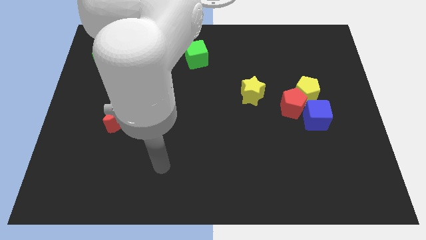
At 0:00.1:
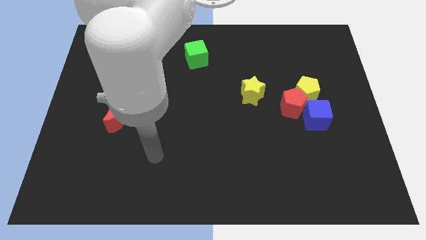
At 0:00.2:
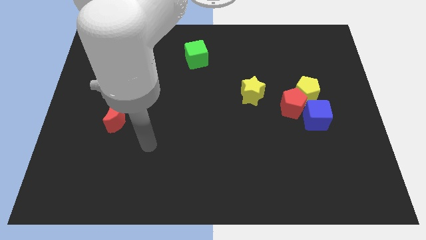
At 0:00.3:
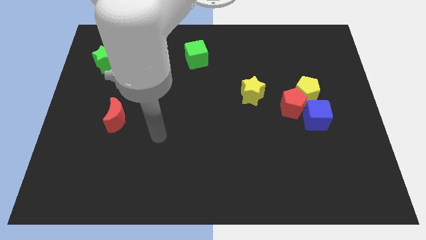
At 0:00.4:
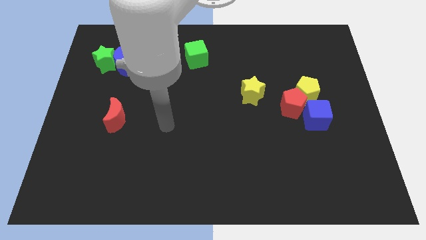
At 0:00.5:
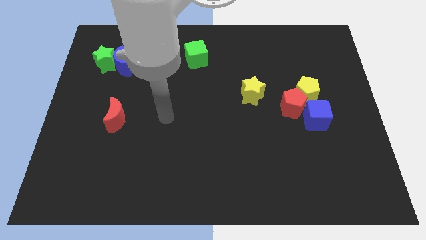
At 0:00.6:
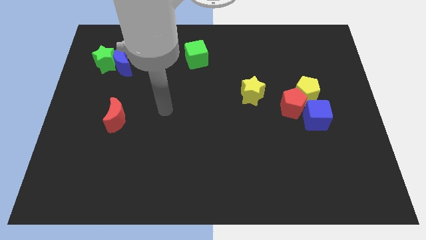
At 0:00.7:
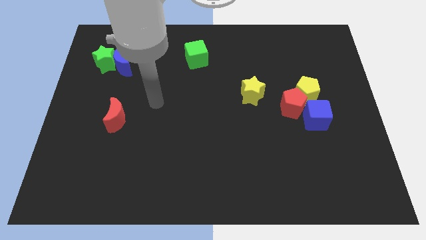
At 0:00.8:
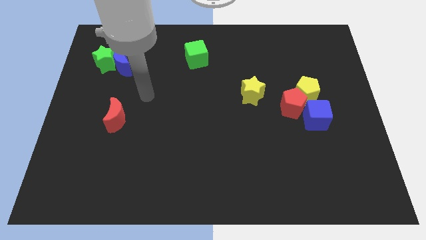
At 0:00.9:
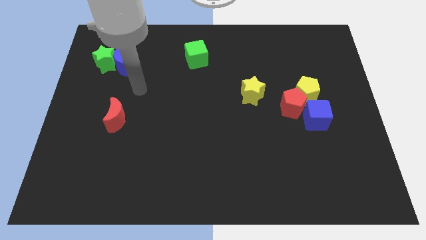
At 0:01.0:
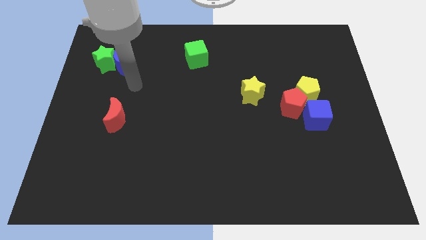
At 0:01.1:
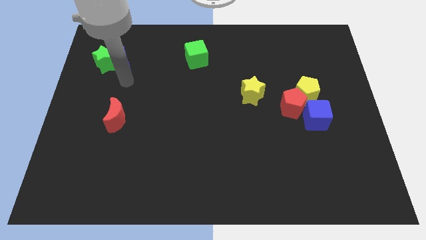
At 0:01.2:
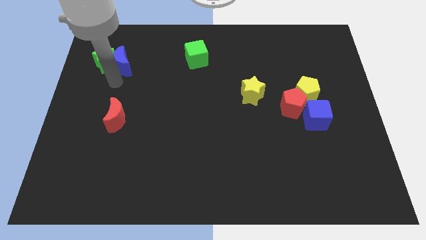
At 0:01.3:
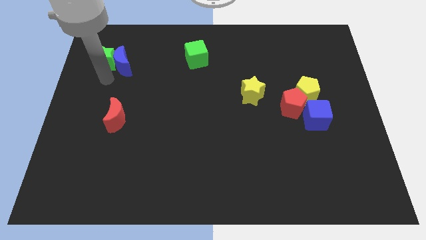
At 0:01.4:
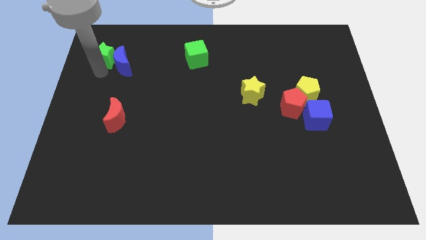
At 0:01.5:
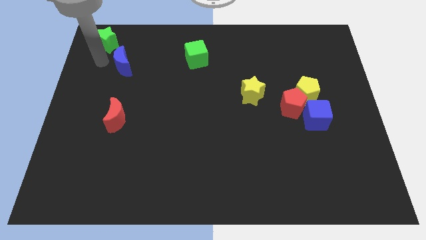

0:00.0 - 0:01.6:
separate the blue moon from the green star

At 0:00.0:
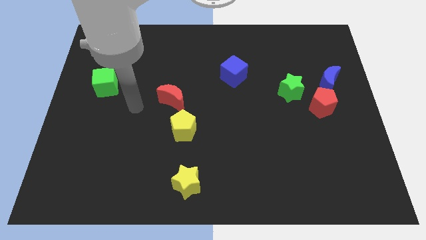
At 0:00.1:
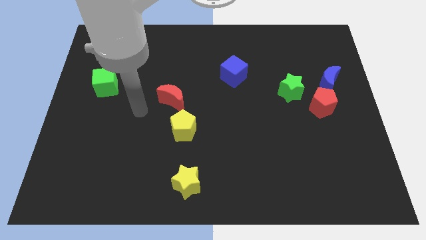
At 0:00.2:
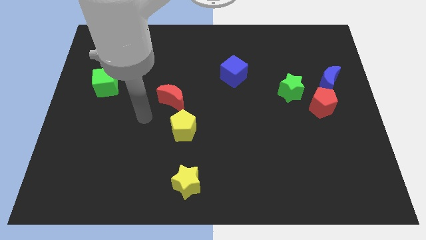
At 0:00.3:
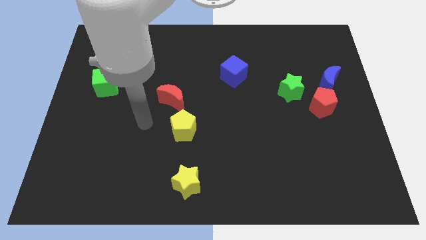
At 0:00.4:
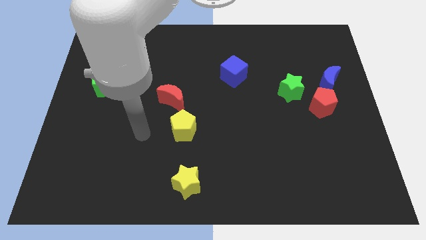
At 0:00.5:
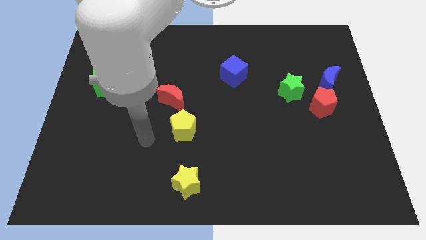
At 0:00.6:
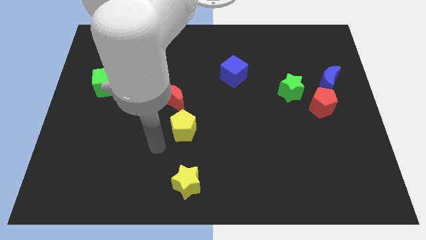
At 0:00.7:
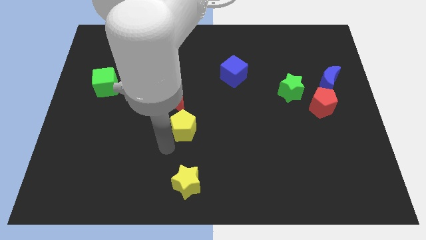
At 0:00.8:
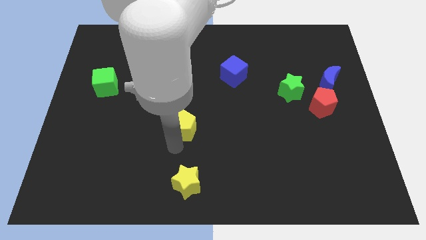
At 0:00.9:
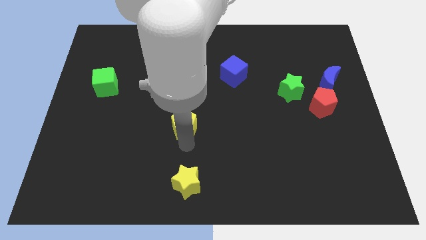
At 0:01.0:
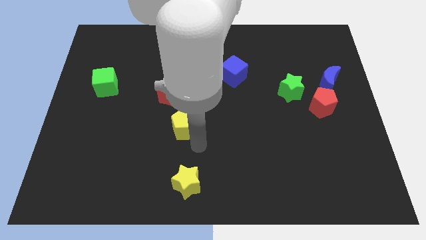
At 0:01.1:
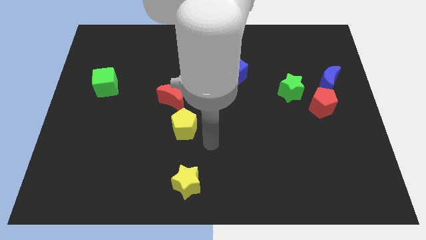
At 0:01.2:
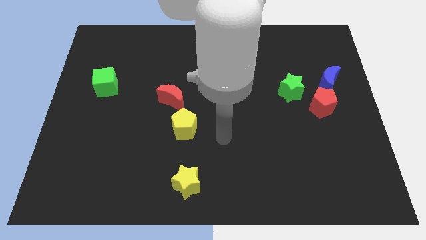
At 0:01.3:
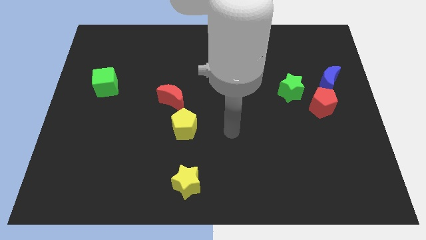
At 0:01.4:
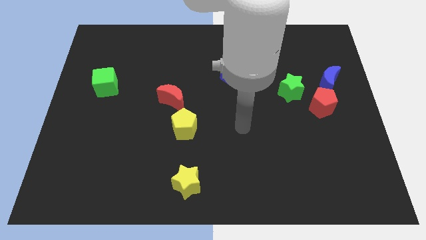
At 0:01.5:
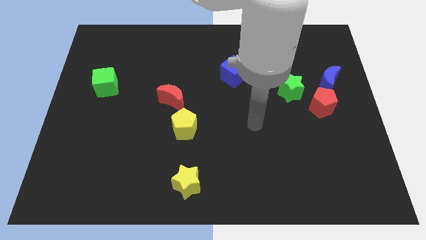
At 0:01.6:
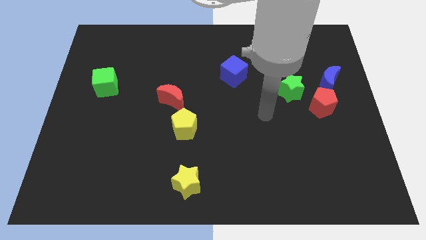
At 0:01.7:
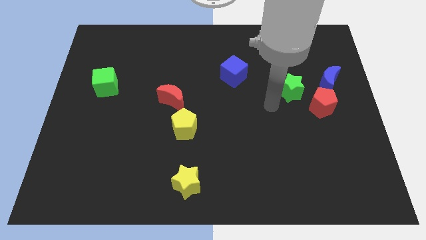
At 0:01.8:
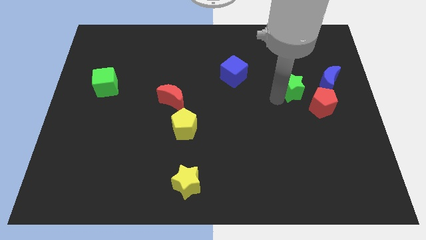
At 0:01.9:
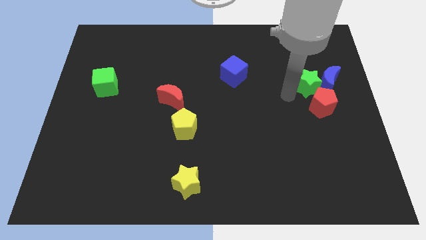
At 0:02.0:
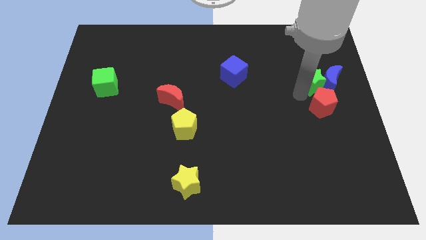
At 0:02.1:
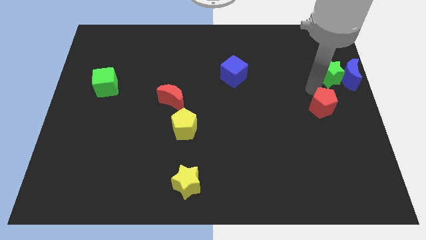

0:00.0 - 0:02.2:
move the red pentagon away from the blue moon and green star

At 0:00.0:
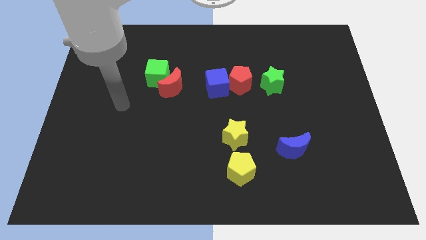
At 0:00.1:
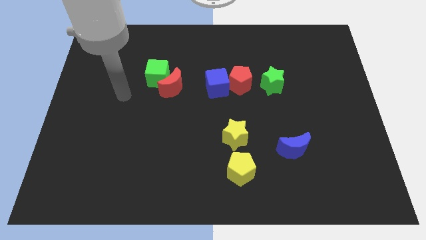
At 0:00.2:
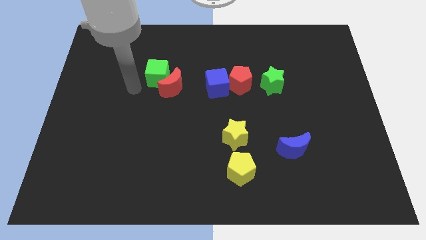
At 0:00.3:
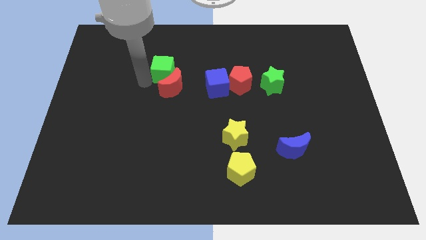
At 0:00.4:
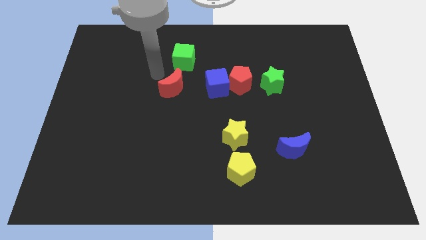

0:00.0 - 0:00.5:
move the red moon away from the green cube

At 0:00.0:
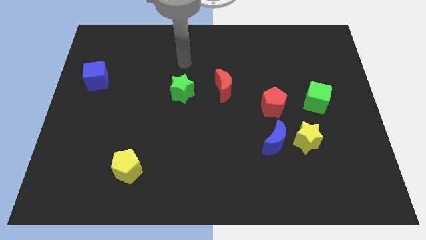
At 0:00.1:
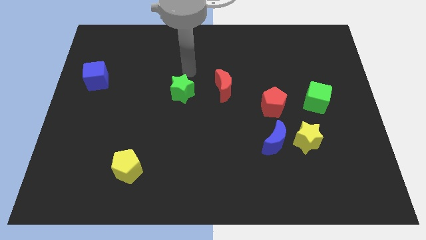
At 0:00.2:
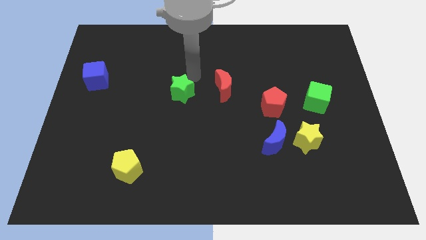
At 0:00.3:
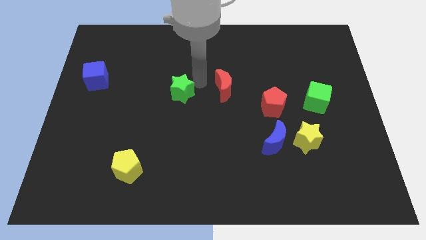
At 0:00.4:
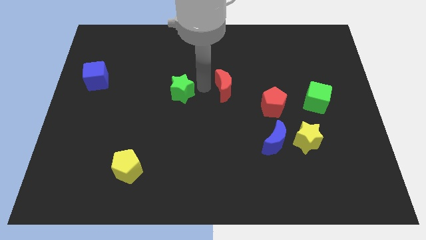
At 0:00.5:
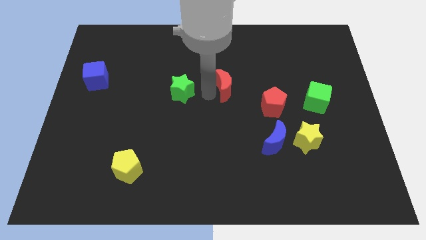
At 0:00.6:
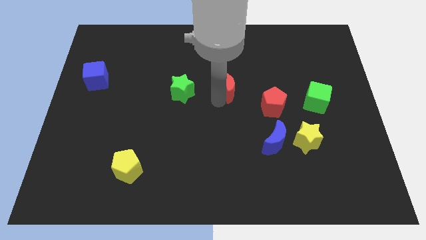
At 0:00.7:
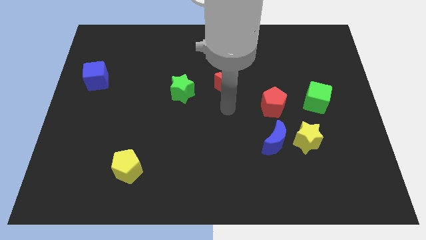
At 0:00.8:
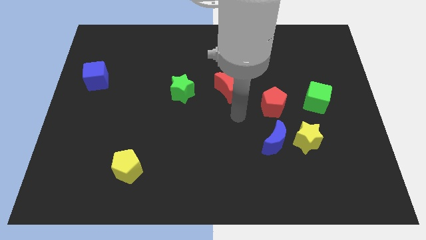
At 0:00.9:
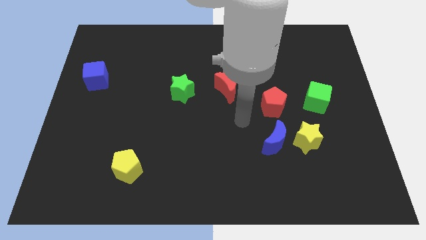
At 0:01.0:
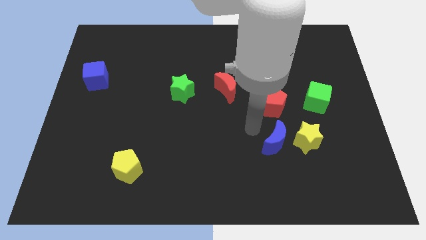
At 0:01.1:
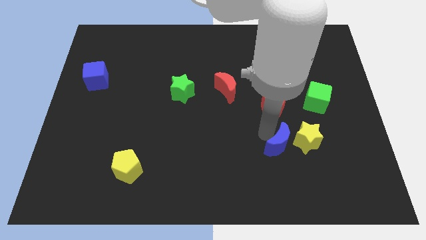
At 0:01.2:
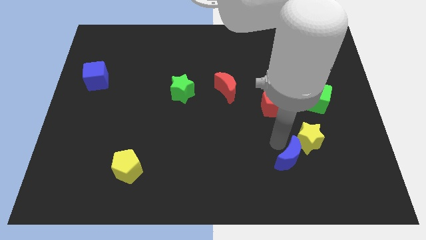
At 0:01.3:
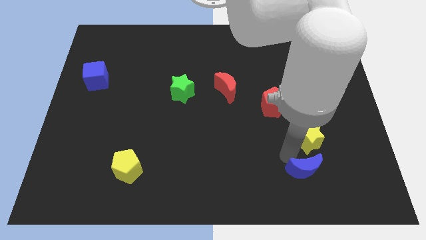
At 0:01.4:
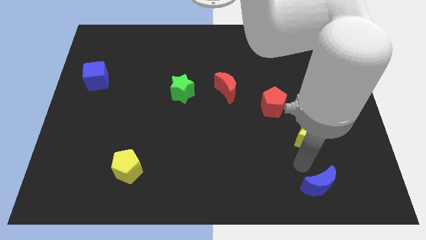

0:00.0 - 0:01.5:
pull the yellow star apart from the blue moon

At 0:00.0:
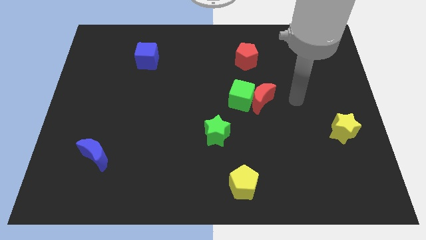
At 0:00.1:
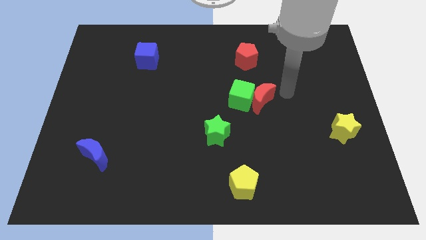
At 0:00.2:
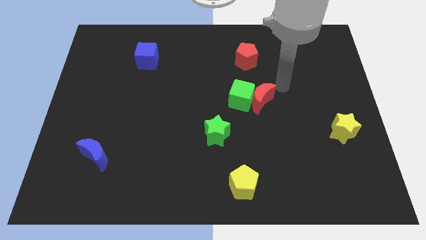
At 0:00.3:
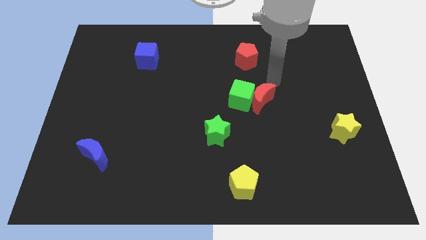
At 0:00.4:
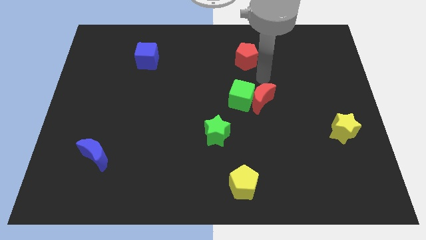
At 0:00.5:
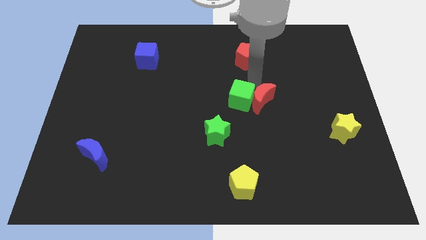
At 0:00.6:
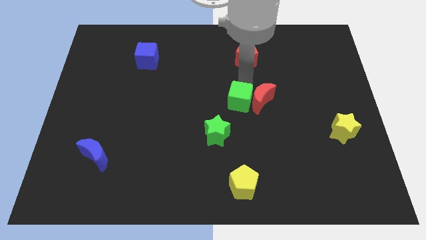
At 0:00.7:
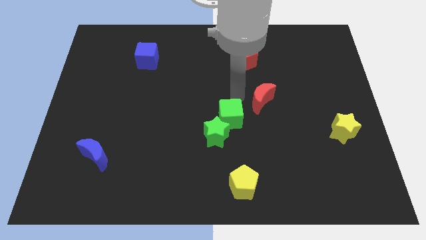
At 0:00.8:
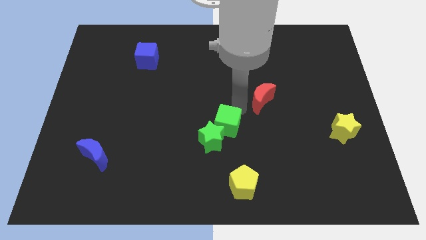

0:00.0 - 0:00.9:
separate the red moon from the green cube

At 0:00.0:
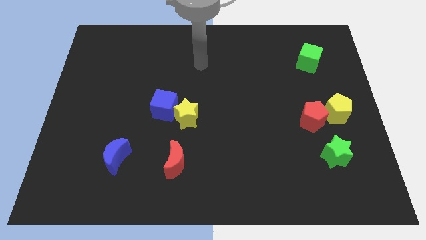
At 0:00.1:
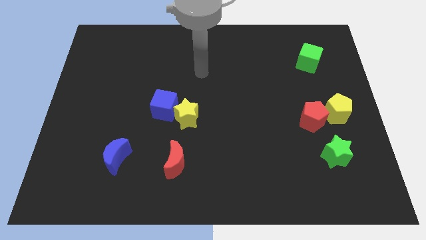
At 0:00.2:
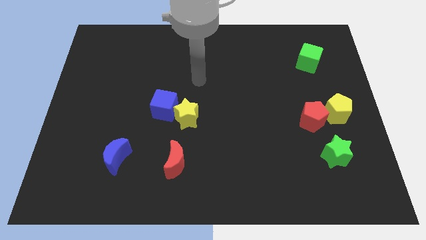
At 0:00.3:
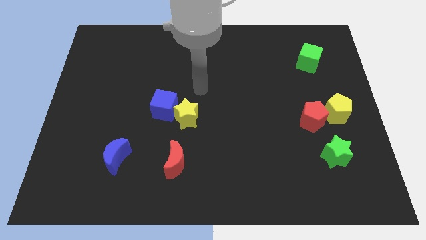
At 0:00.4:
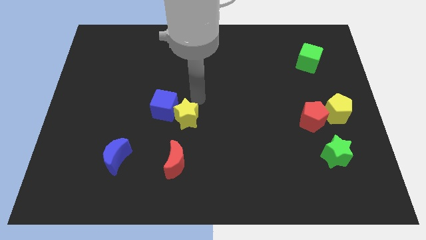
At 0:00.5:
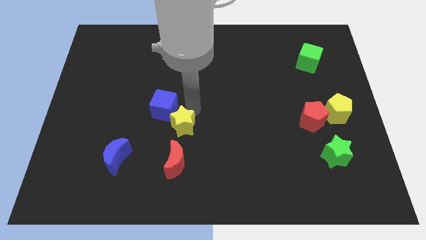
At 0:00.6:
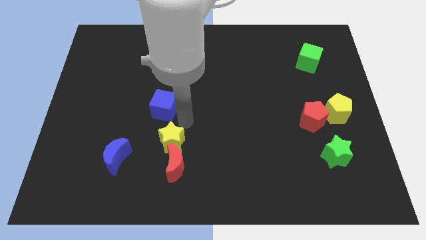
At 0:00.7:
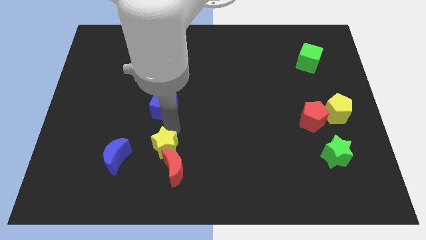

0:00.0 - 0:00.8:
separate the blue cube from the yellow star

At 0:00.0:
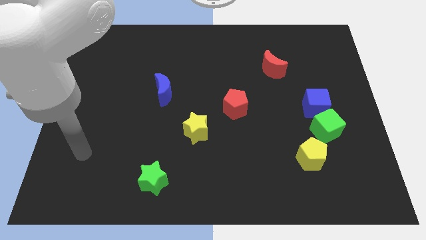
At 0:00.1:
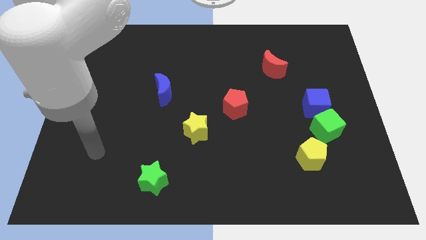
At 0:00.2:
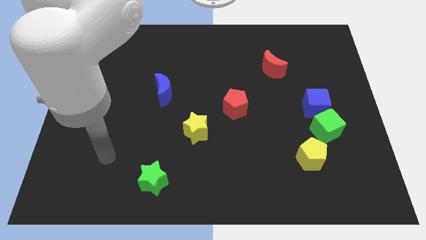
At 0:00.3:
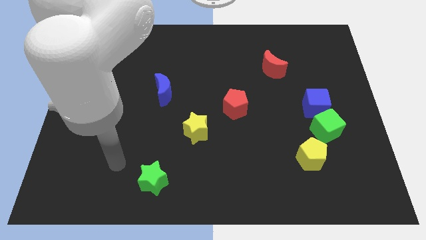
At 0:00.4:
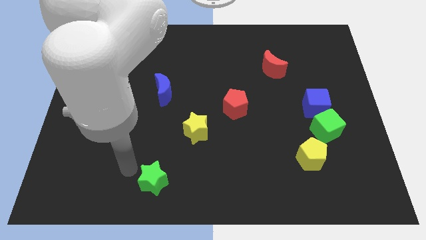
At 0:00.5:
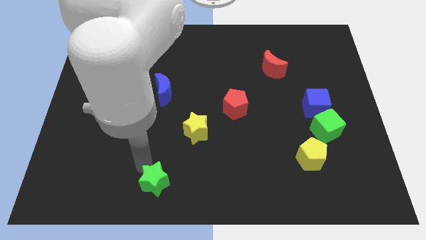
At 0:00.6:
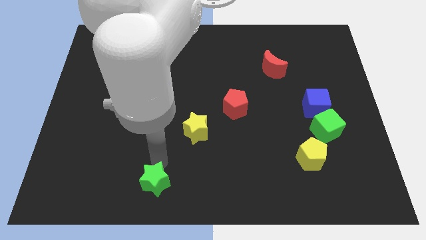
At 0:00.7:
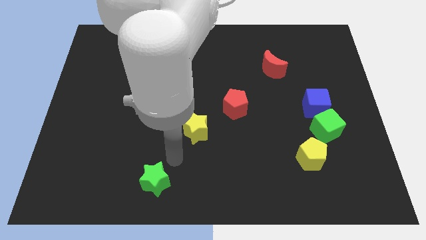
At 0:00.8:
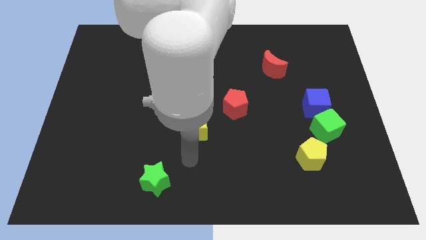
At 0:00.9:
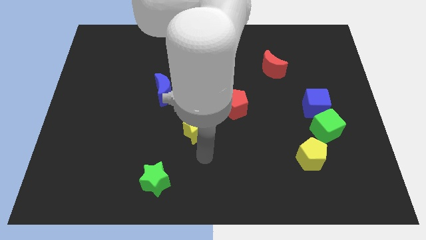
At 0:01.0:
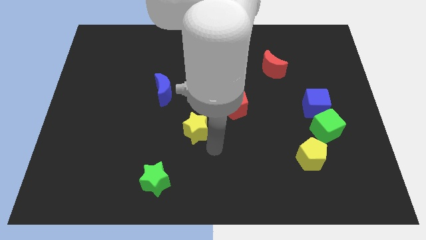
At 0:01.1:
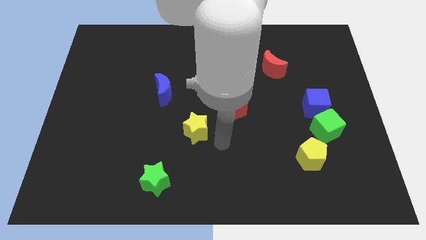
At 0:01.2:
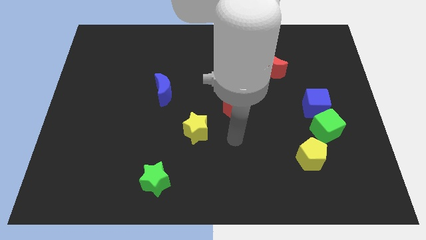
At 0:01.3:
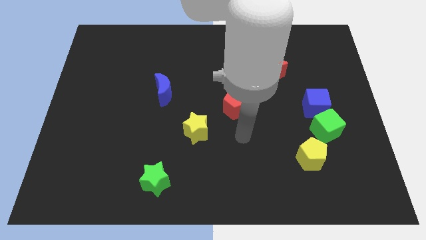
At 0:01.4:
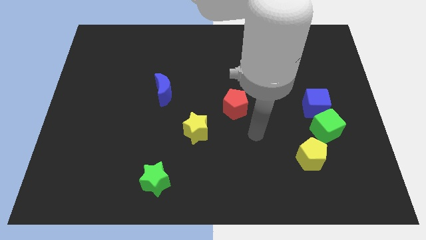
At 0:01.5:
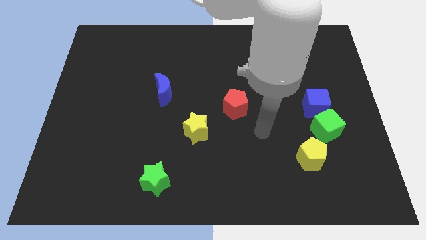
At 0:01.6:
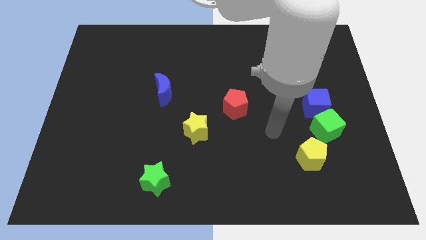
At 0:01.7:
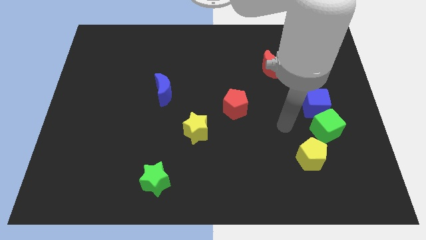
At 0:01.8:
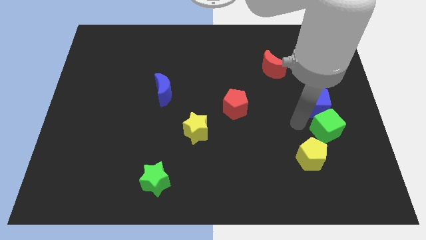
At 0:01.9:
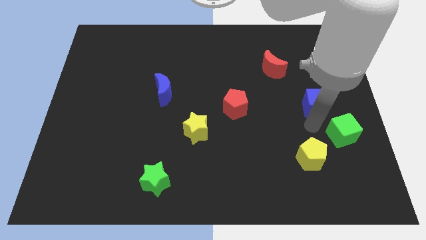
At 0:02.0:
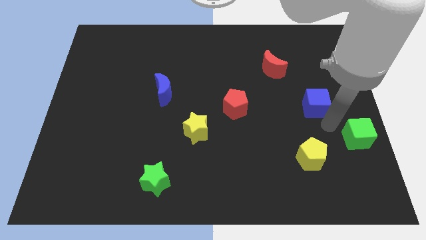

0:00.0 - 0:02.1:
move the blue cube away from the green cube
